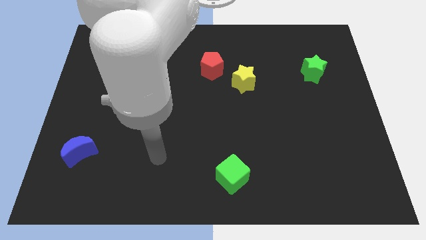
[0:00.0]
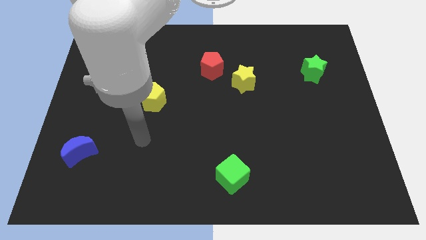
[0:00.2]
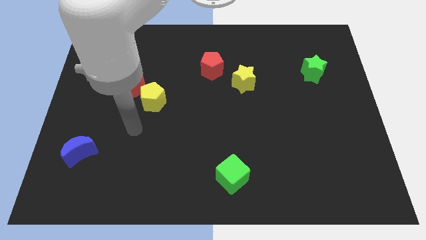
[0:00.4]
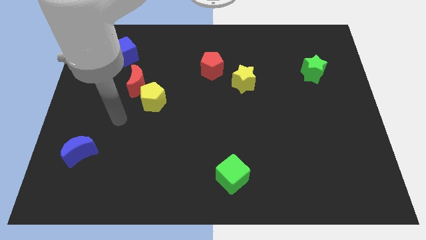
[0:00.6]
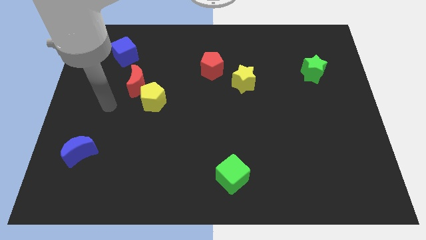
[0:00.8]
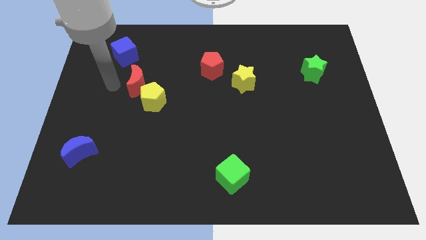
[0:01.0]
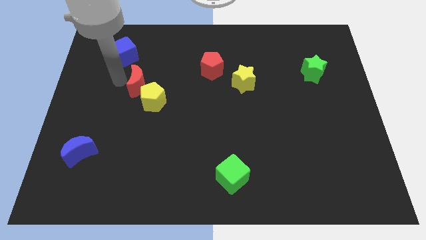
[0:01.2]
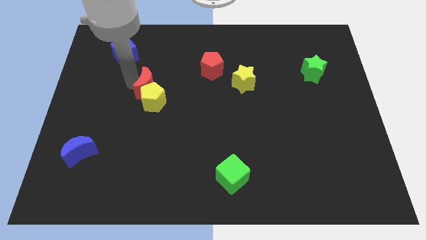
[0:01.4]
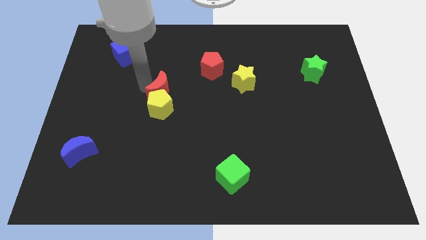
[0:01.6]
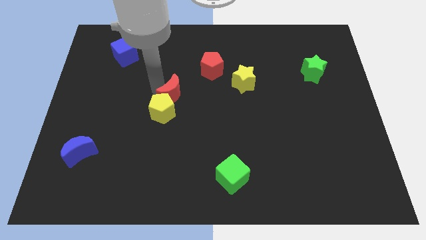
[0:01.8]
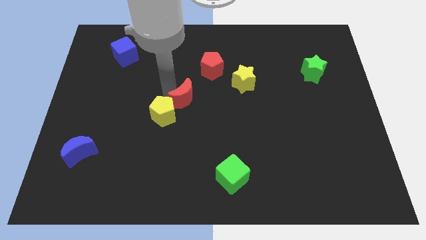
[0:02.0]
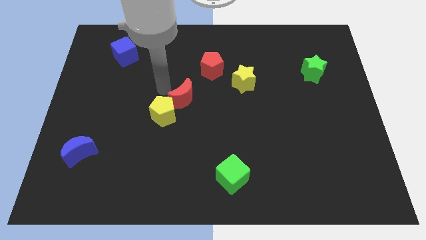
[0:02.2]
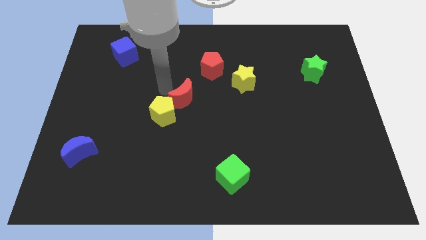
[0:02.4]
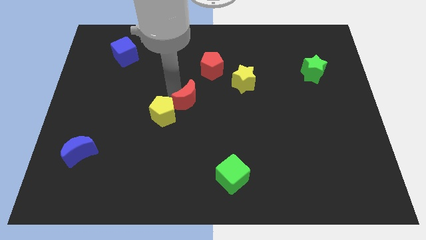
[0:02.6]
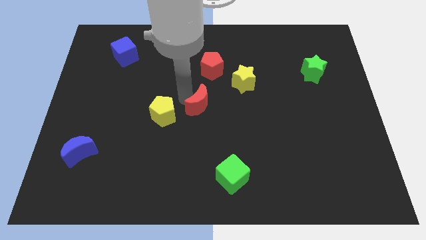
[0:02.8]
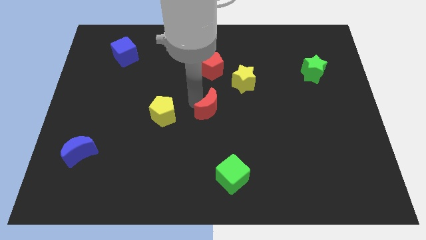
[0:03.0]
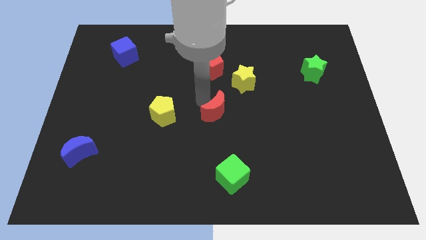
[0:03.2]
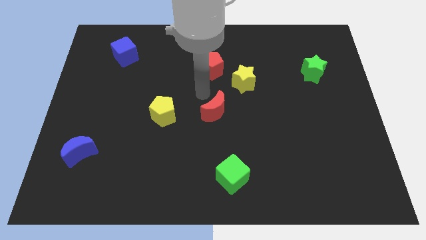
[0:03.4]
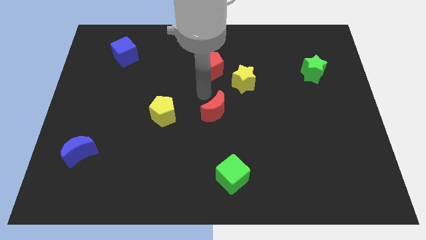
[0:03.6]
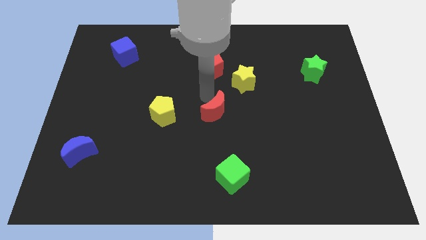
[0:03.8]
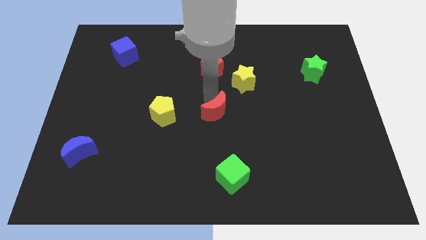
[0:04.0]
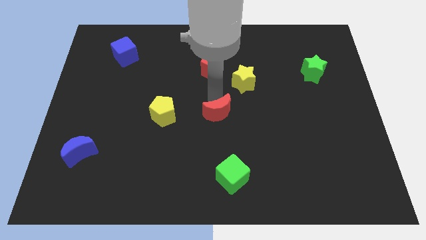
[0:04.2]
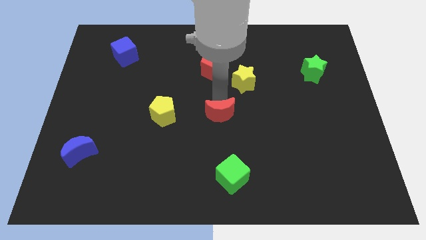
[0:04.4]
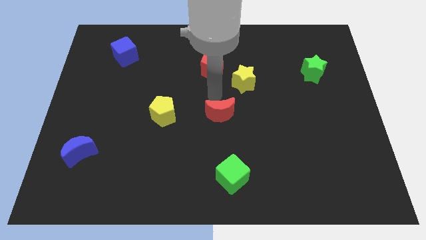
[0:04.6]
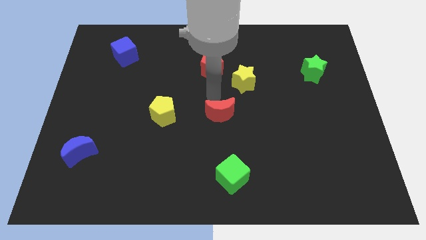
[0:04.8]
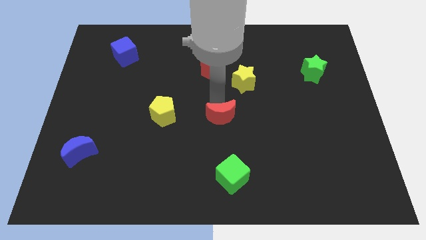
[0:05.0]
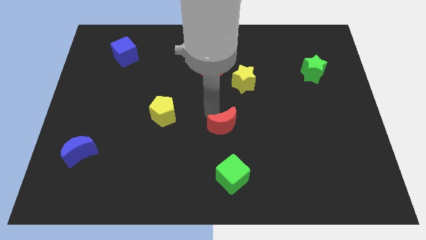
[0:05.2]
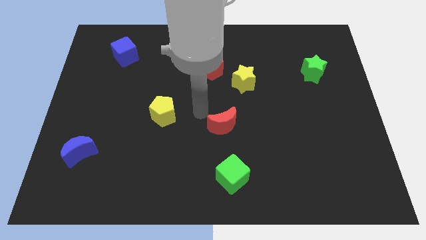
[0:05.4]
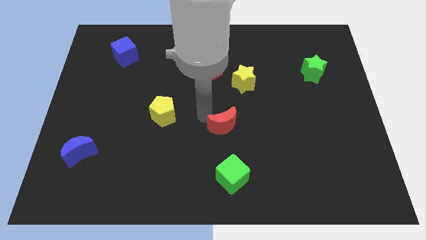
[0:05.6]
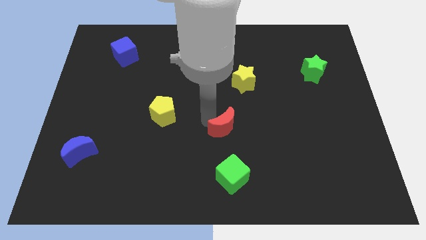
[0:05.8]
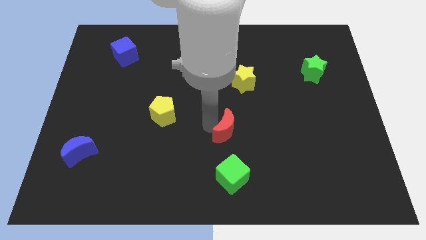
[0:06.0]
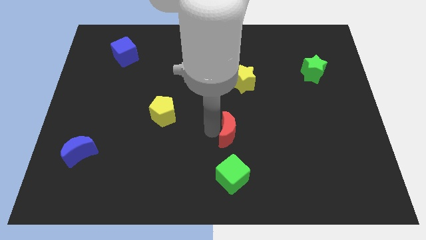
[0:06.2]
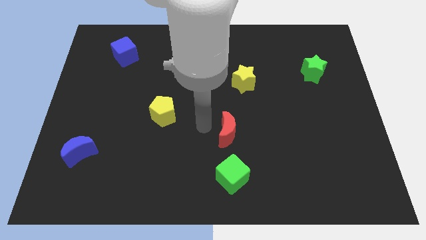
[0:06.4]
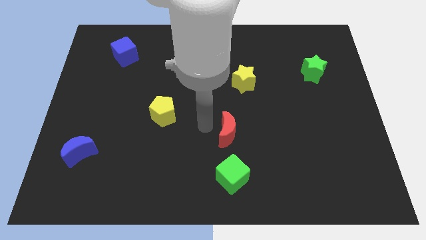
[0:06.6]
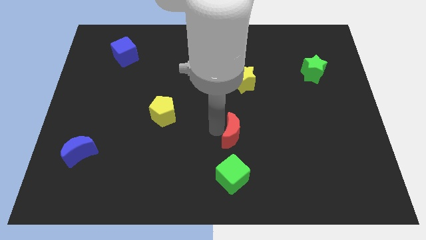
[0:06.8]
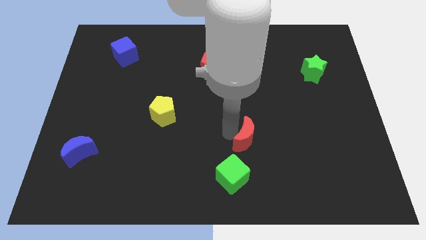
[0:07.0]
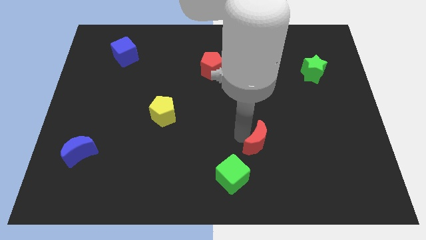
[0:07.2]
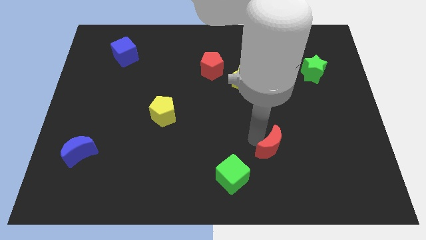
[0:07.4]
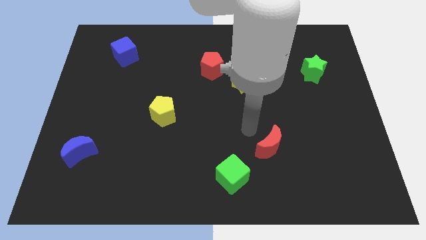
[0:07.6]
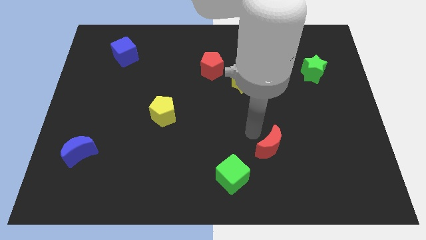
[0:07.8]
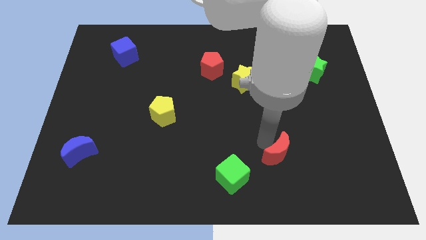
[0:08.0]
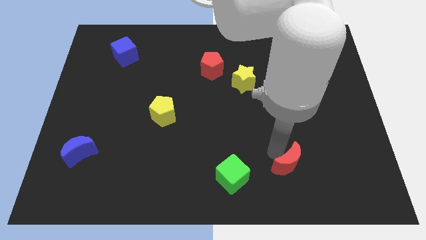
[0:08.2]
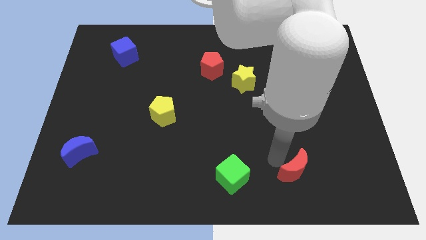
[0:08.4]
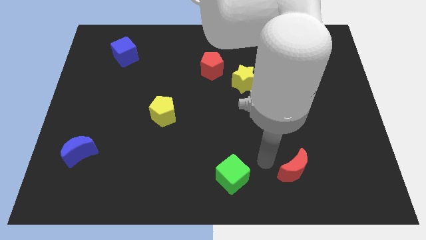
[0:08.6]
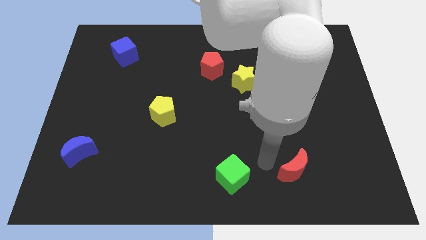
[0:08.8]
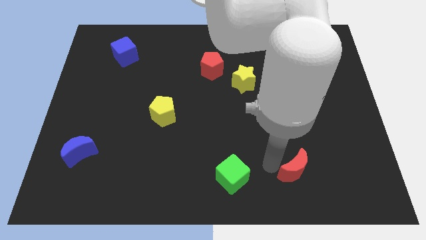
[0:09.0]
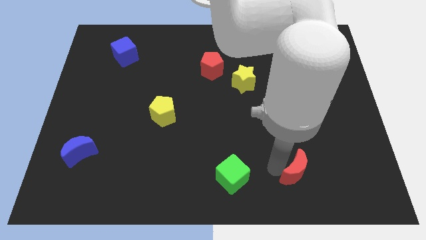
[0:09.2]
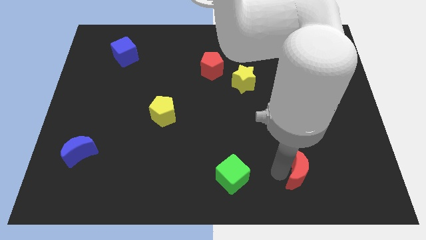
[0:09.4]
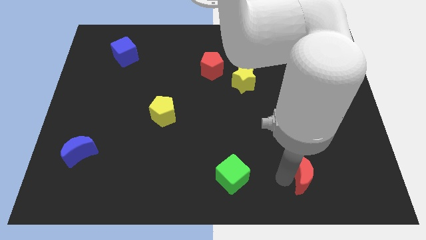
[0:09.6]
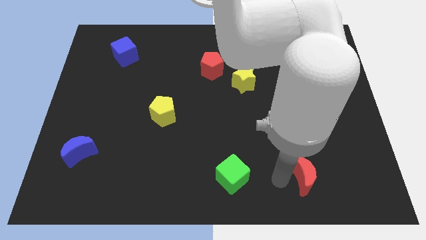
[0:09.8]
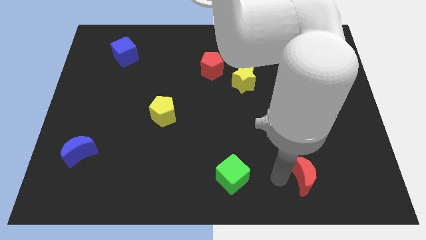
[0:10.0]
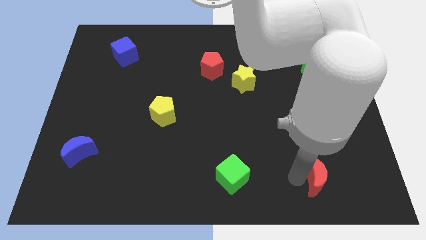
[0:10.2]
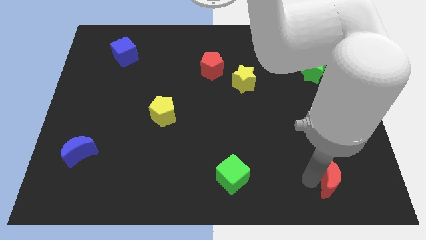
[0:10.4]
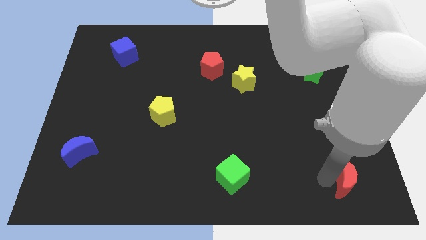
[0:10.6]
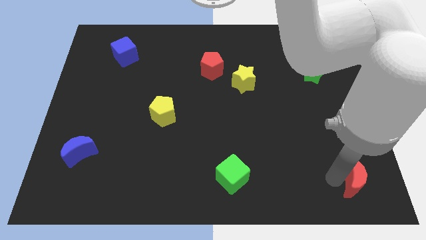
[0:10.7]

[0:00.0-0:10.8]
put the red moon to the bottom right corner

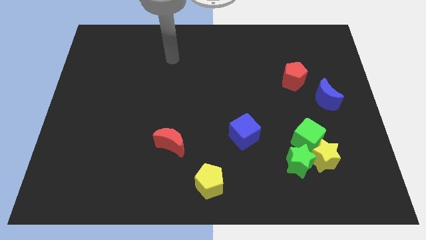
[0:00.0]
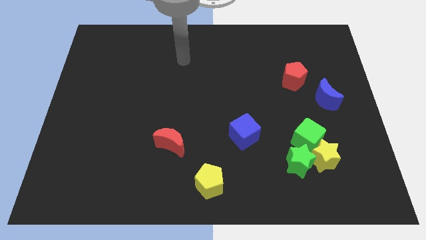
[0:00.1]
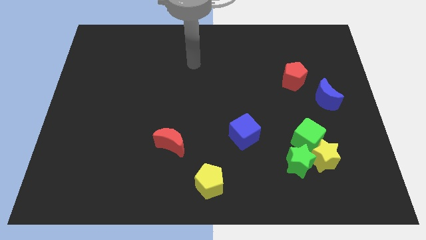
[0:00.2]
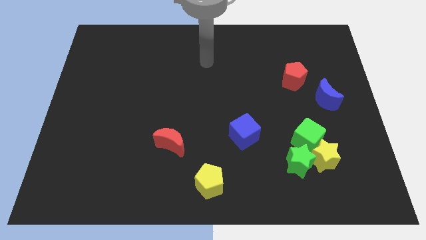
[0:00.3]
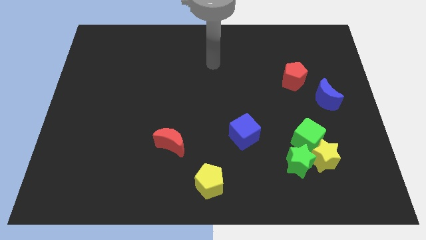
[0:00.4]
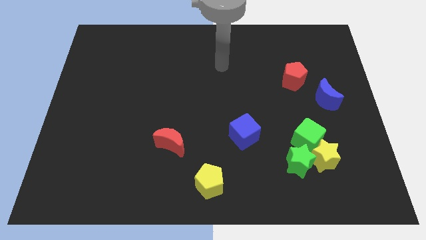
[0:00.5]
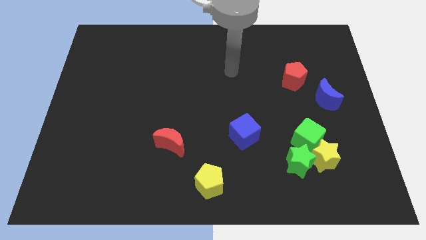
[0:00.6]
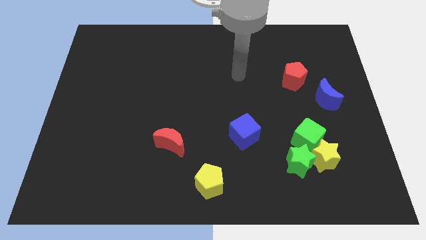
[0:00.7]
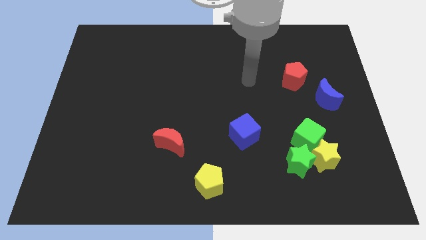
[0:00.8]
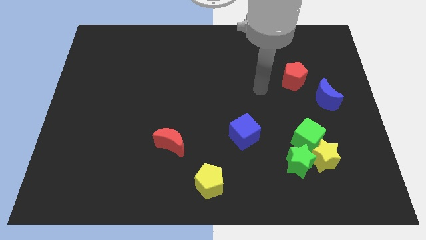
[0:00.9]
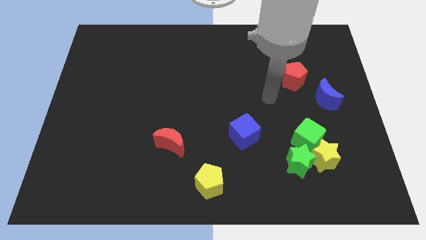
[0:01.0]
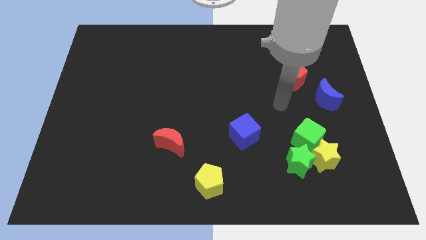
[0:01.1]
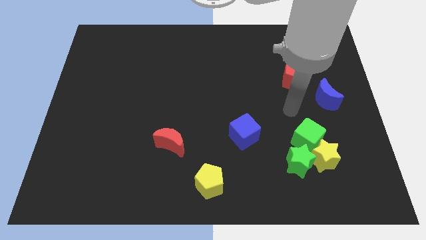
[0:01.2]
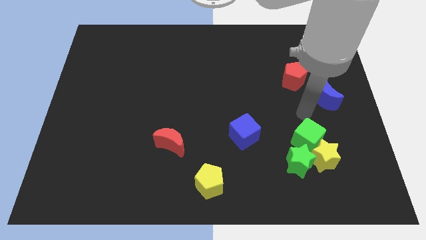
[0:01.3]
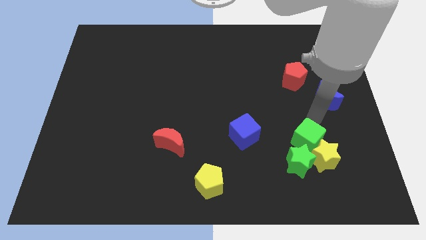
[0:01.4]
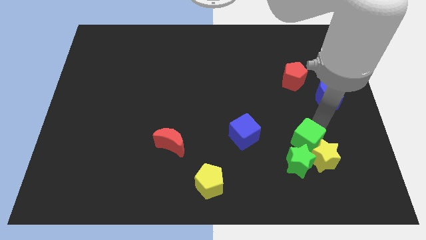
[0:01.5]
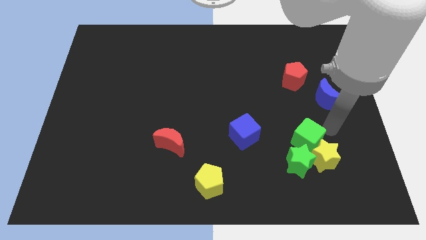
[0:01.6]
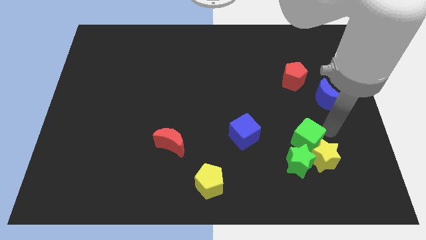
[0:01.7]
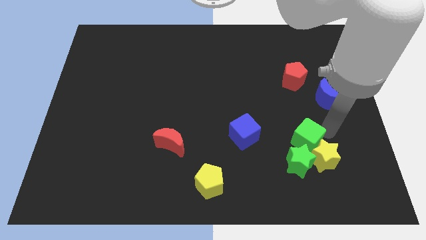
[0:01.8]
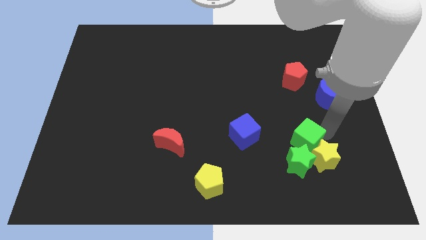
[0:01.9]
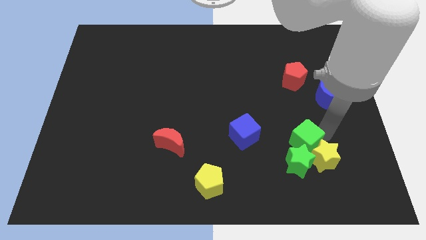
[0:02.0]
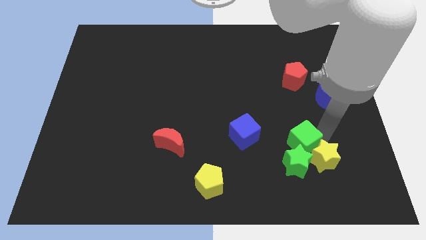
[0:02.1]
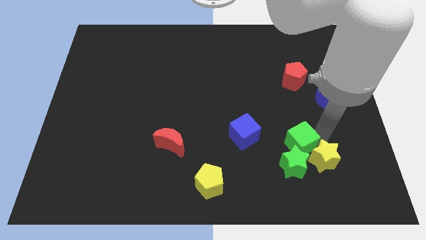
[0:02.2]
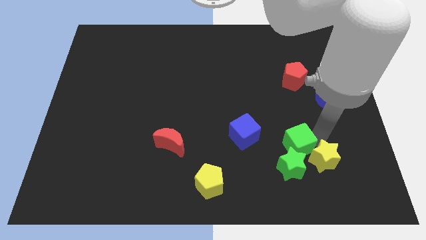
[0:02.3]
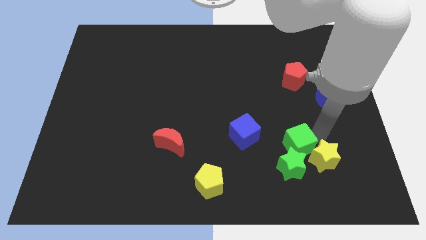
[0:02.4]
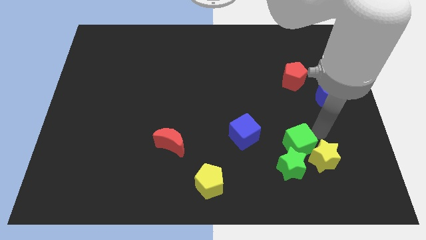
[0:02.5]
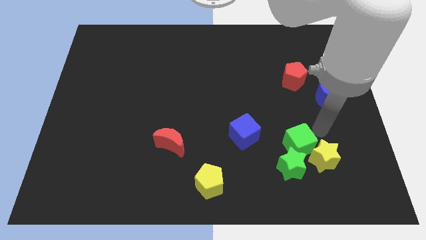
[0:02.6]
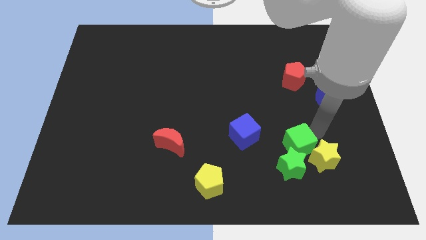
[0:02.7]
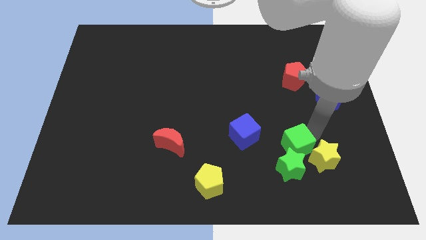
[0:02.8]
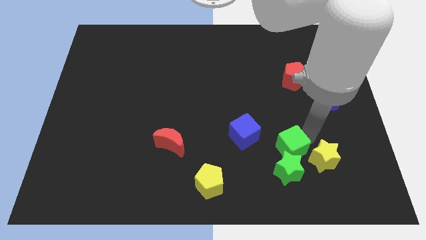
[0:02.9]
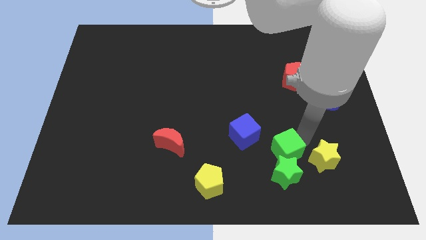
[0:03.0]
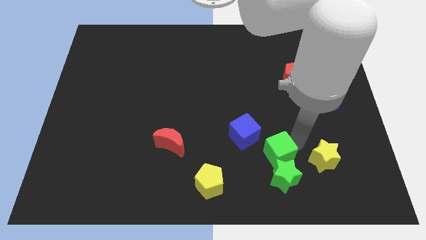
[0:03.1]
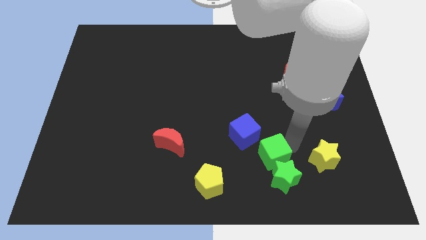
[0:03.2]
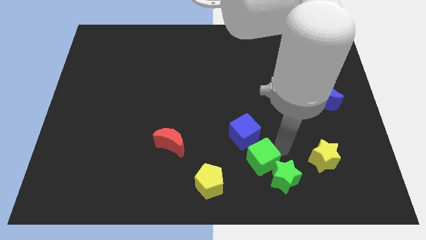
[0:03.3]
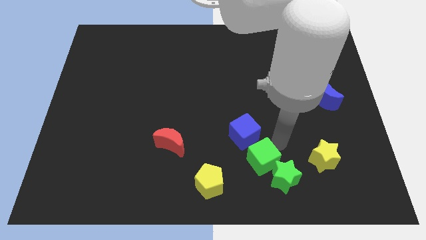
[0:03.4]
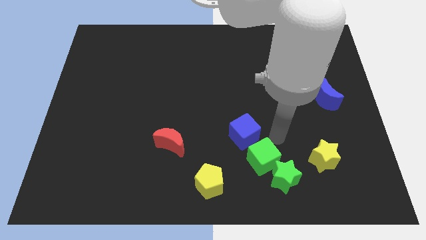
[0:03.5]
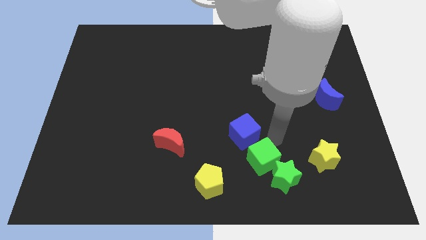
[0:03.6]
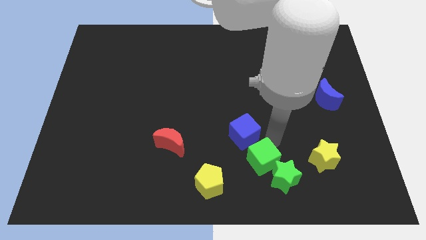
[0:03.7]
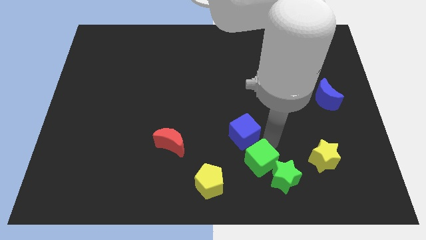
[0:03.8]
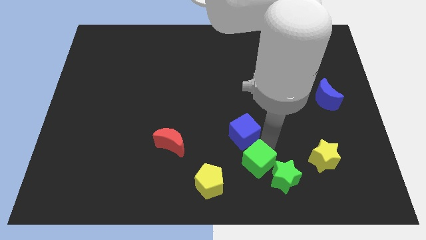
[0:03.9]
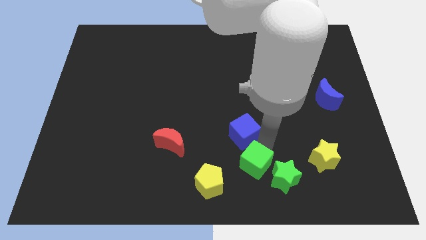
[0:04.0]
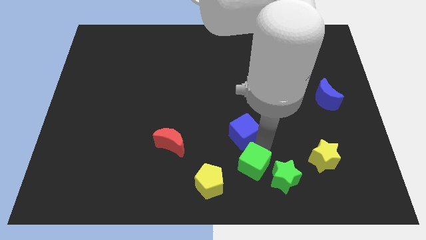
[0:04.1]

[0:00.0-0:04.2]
put the green cube to the bottom side
